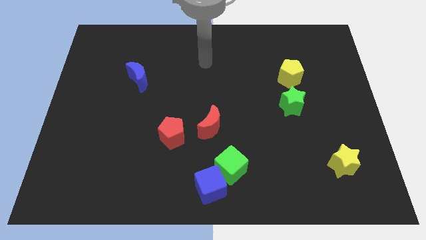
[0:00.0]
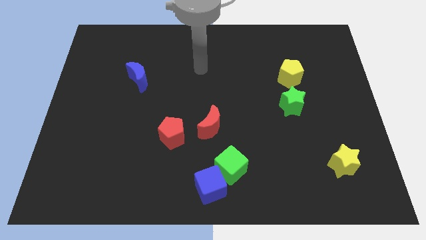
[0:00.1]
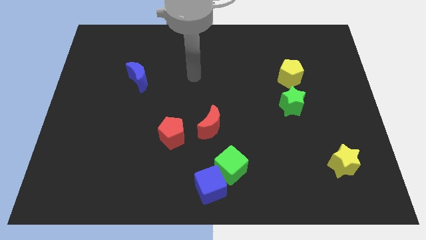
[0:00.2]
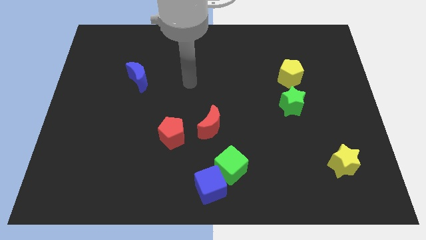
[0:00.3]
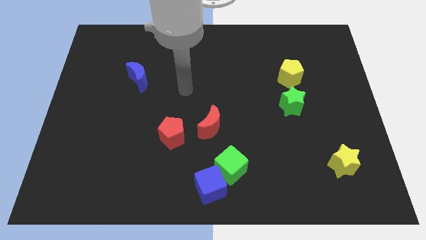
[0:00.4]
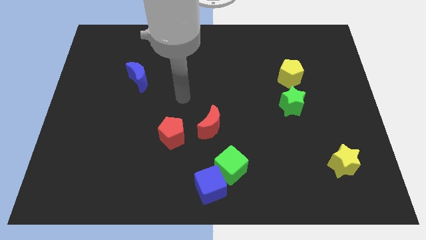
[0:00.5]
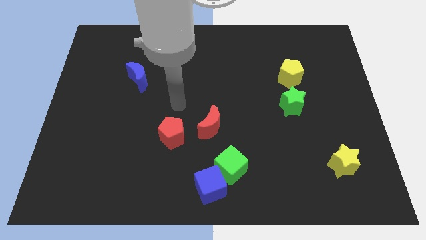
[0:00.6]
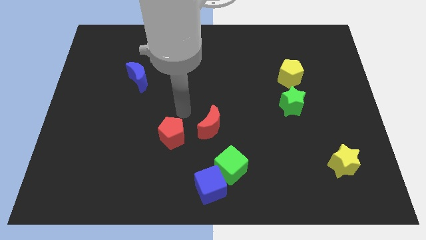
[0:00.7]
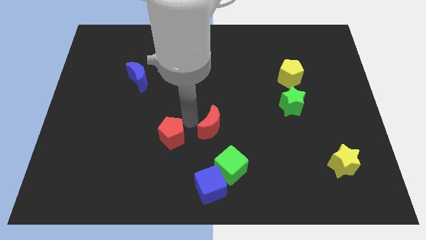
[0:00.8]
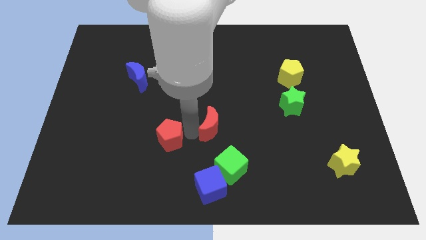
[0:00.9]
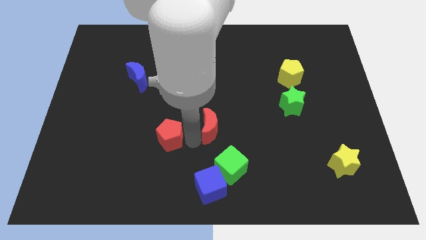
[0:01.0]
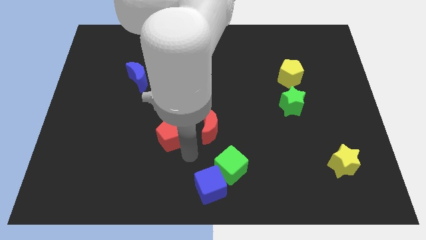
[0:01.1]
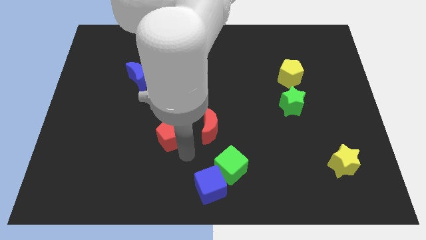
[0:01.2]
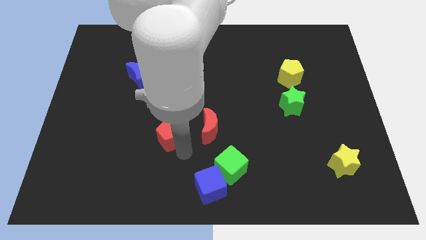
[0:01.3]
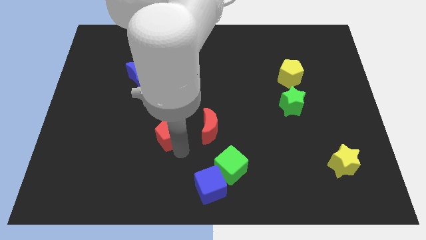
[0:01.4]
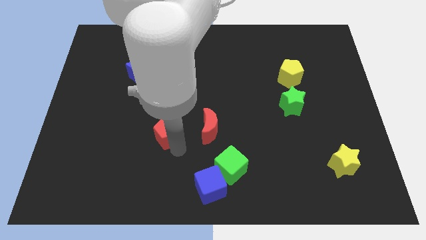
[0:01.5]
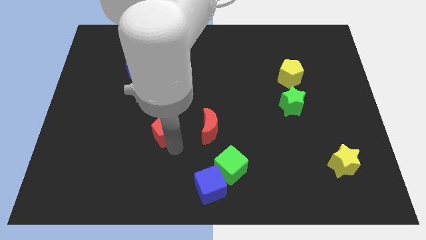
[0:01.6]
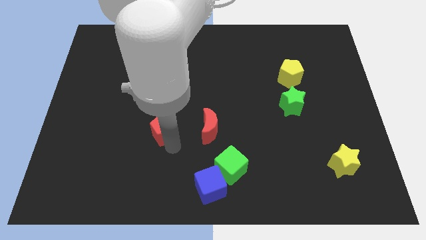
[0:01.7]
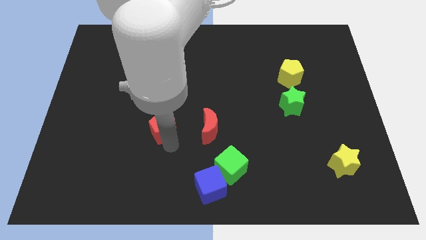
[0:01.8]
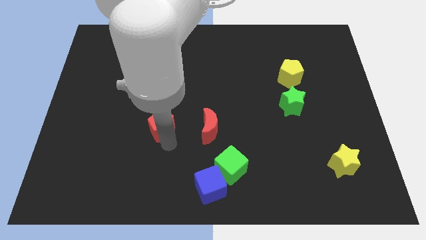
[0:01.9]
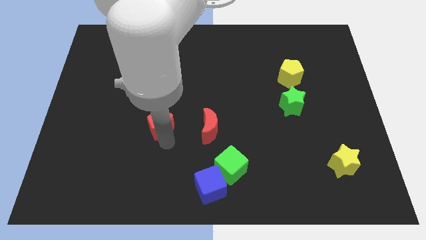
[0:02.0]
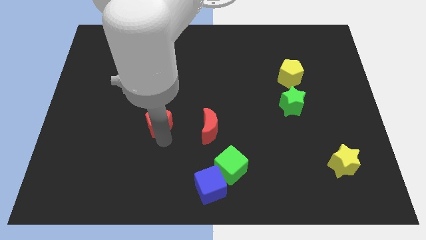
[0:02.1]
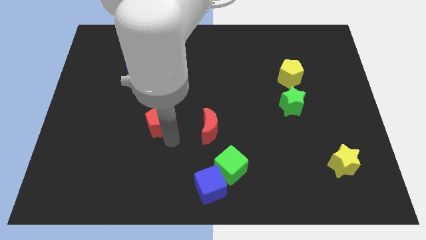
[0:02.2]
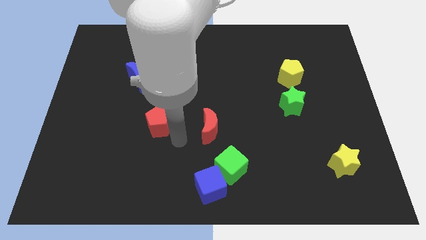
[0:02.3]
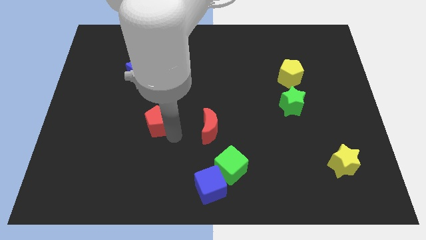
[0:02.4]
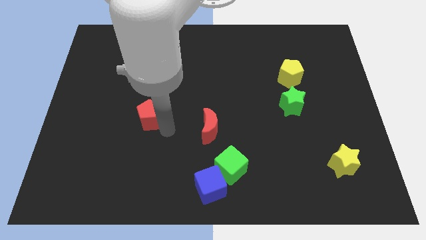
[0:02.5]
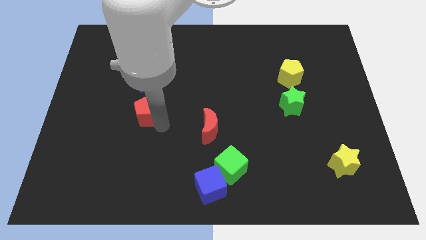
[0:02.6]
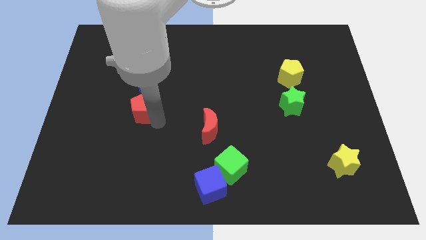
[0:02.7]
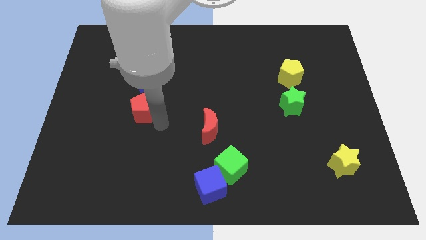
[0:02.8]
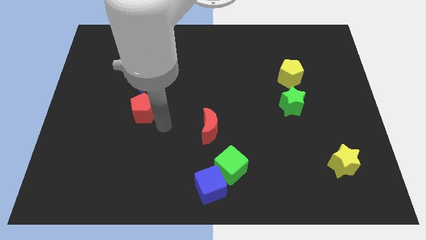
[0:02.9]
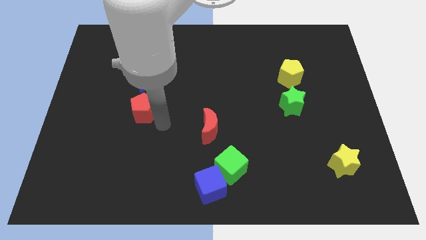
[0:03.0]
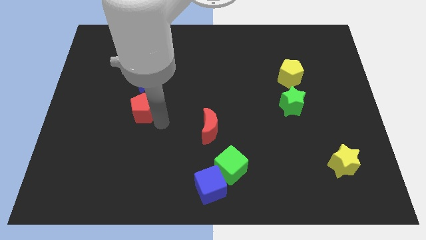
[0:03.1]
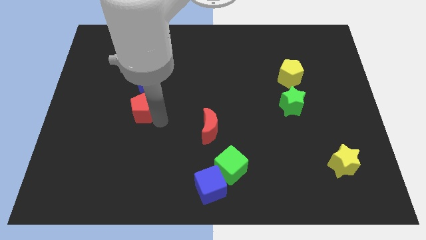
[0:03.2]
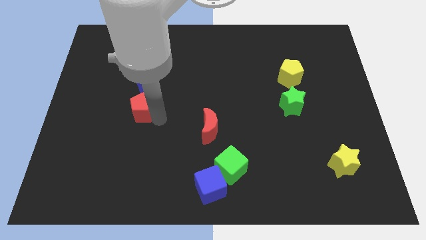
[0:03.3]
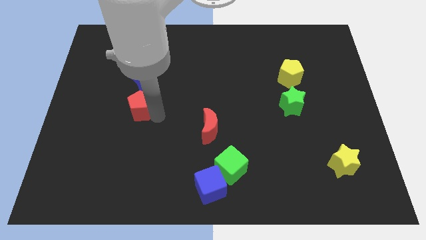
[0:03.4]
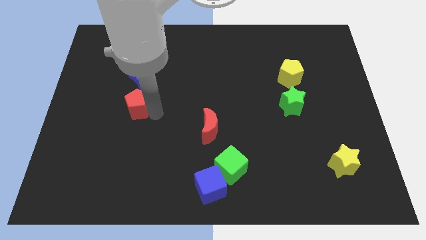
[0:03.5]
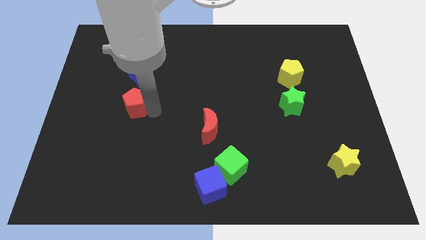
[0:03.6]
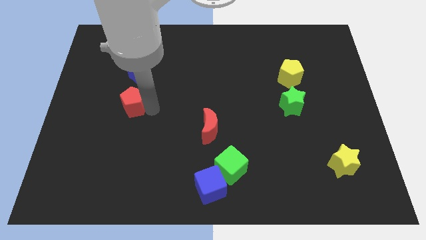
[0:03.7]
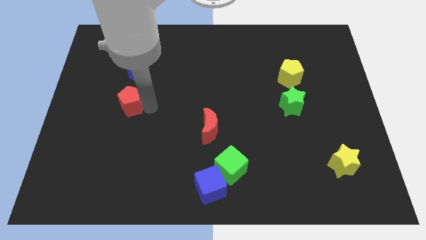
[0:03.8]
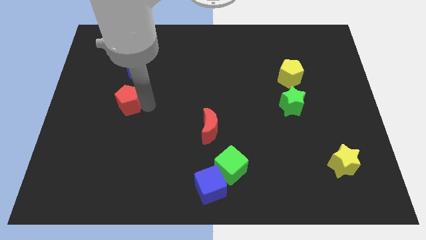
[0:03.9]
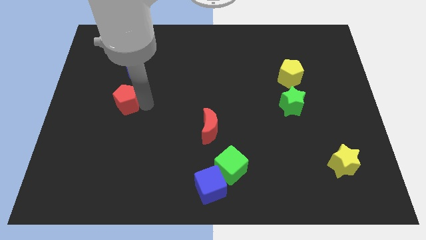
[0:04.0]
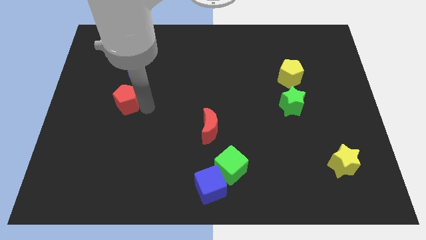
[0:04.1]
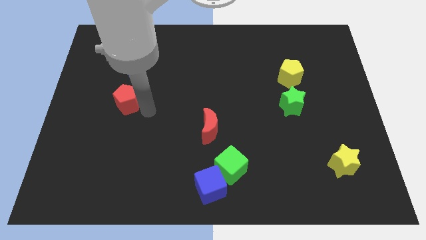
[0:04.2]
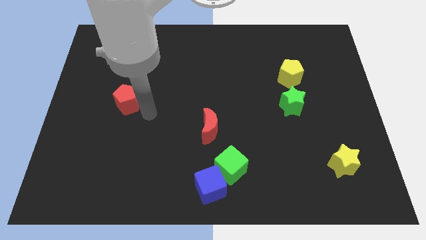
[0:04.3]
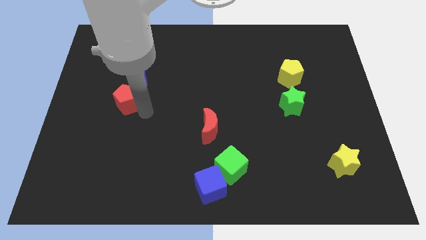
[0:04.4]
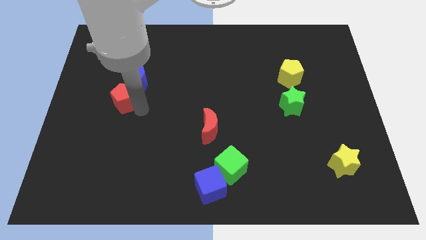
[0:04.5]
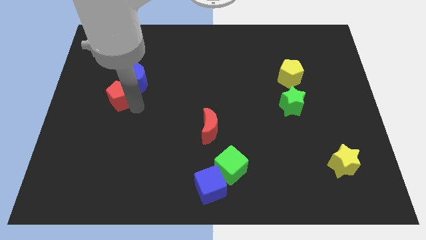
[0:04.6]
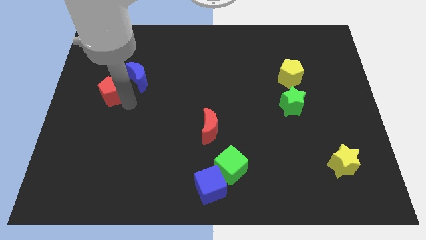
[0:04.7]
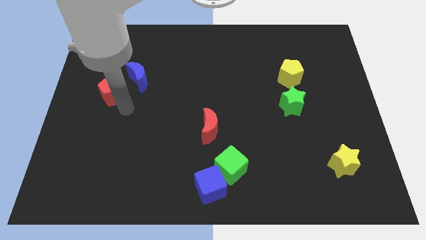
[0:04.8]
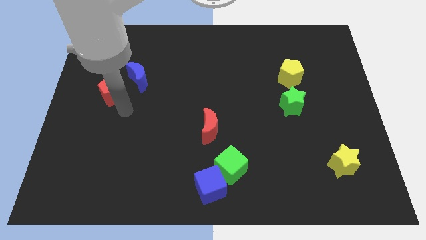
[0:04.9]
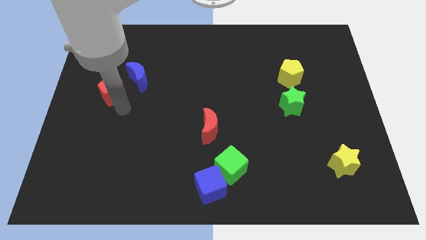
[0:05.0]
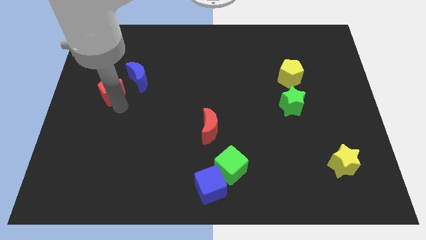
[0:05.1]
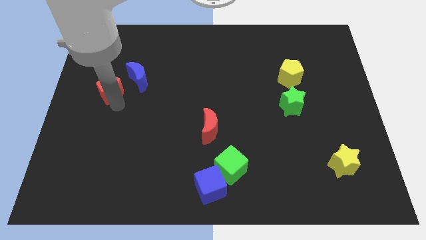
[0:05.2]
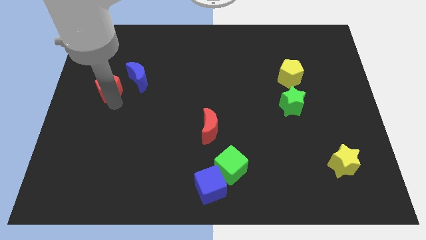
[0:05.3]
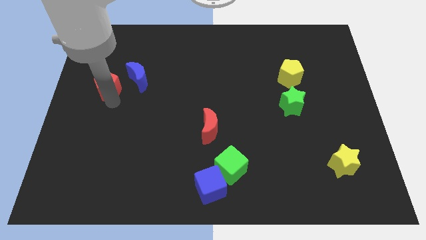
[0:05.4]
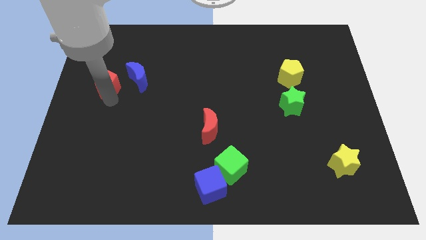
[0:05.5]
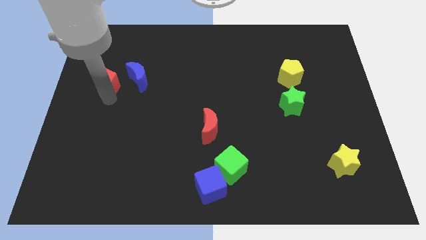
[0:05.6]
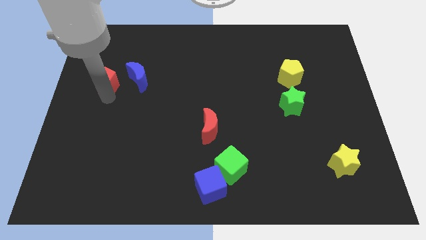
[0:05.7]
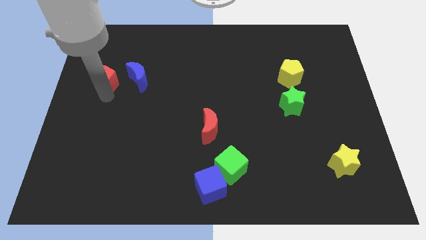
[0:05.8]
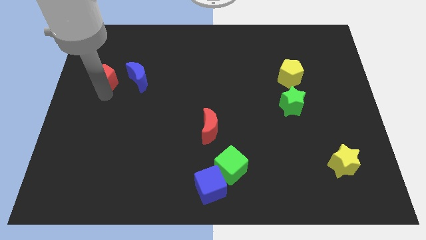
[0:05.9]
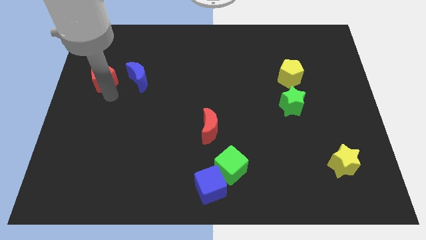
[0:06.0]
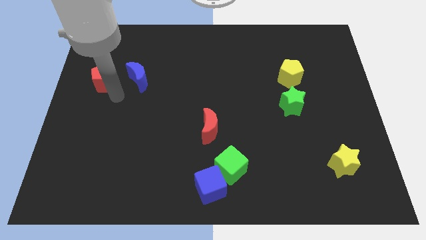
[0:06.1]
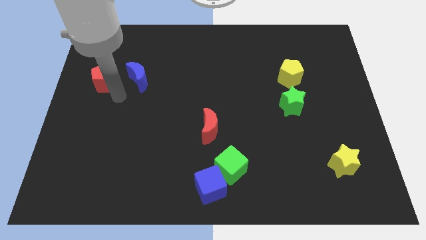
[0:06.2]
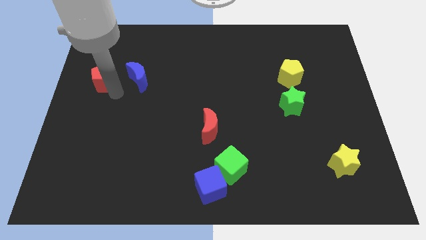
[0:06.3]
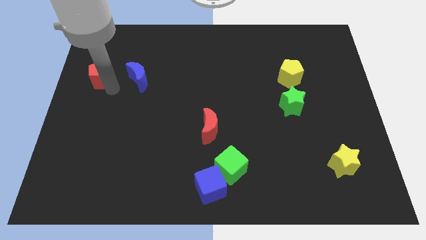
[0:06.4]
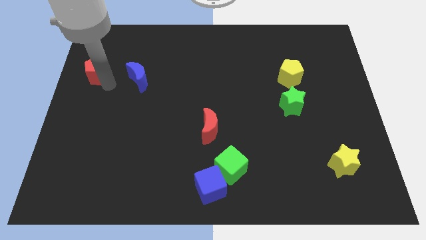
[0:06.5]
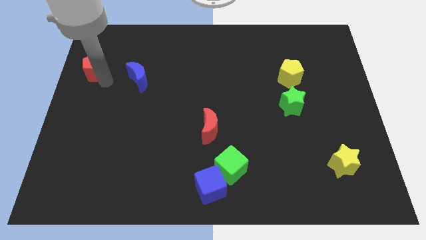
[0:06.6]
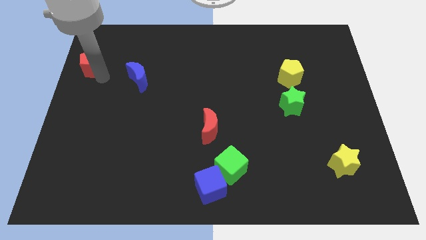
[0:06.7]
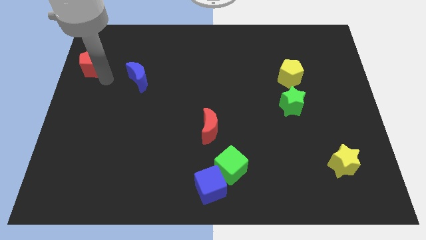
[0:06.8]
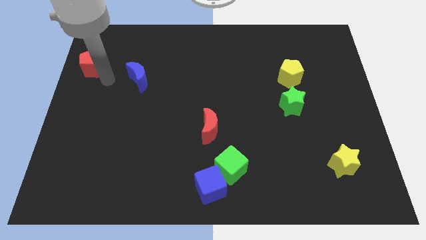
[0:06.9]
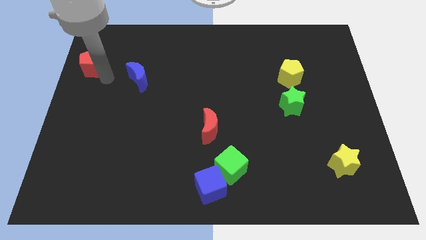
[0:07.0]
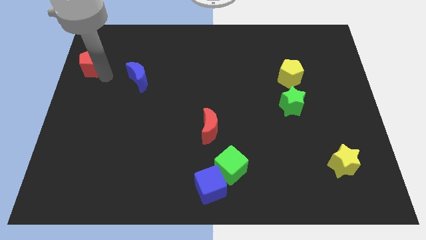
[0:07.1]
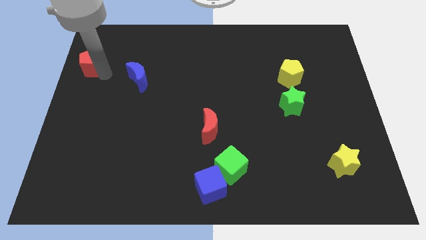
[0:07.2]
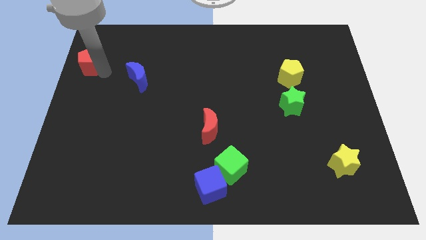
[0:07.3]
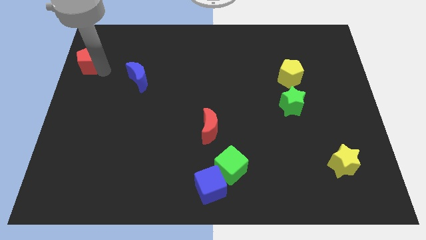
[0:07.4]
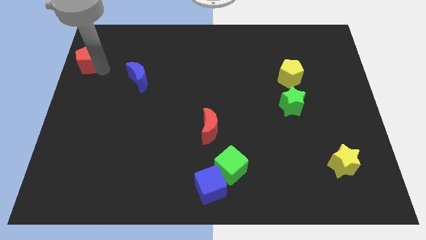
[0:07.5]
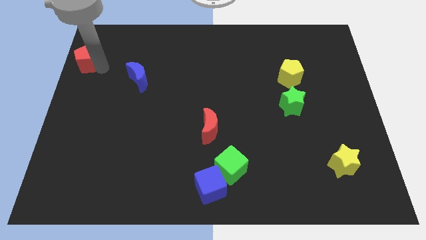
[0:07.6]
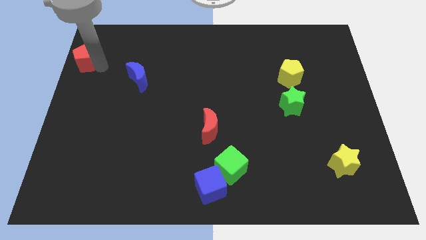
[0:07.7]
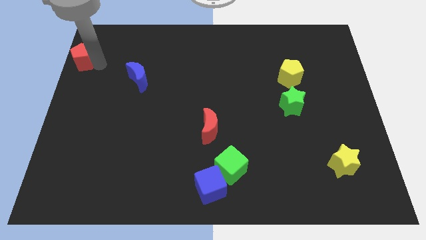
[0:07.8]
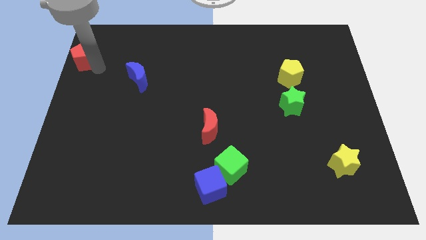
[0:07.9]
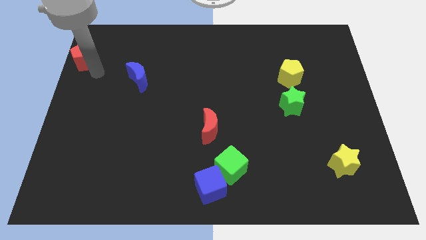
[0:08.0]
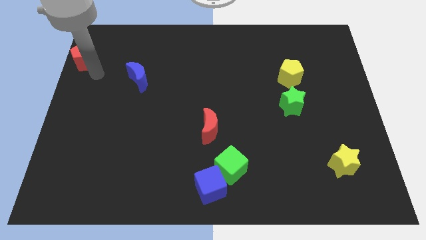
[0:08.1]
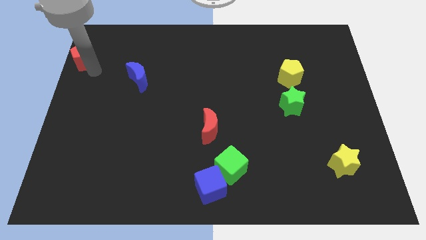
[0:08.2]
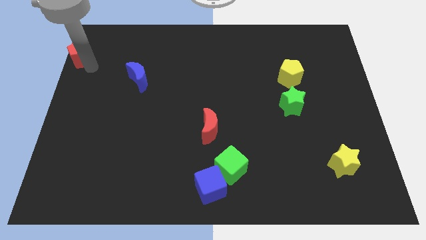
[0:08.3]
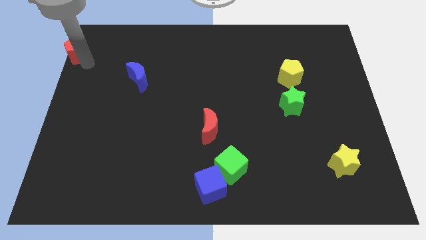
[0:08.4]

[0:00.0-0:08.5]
move the red pentagon to the top left
